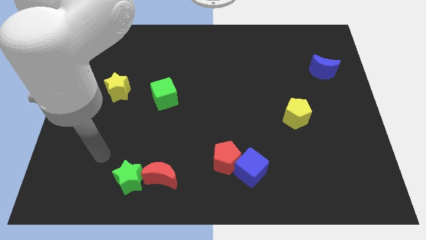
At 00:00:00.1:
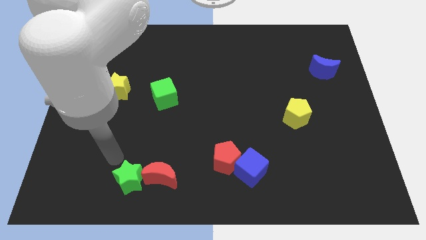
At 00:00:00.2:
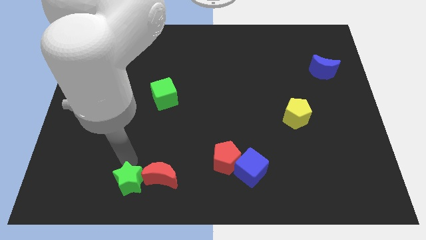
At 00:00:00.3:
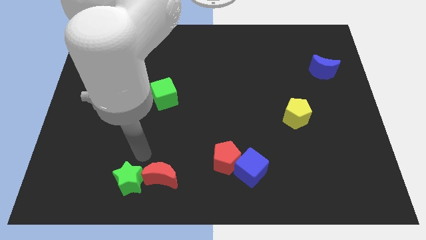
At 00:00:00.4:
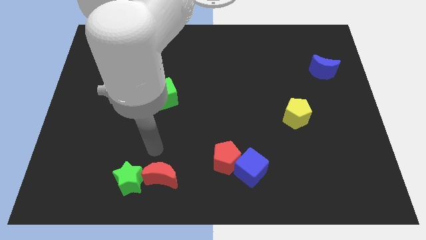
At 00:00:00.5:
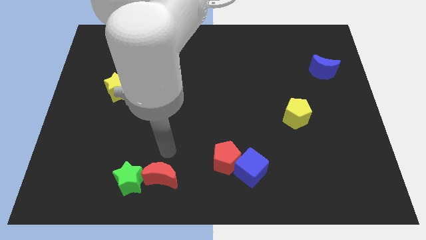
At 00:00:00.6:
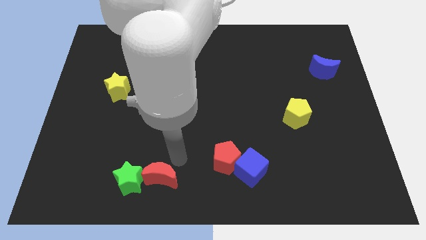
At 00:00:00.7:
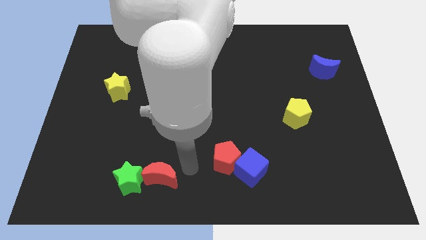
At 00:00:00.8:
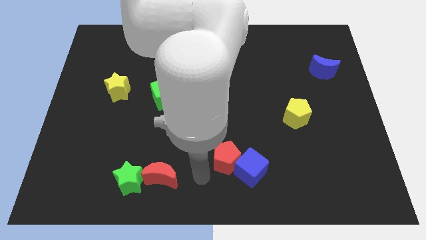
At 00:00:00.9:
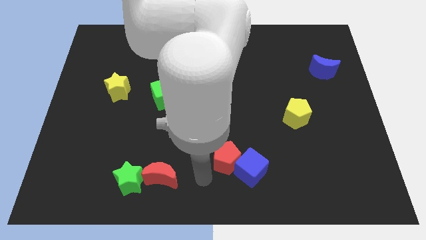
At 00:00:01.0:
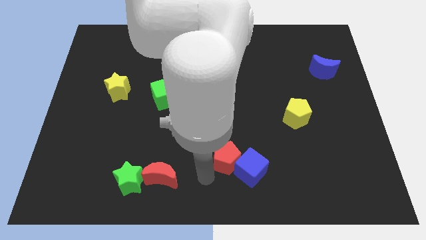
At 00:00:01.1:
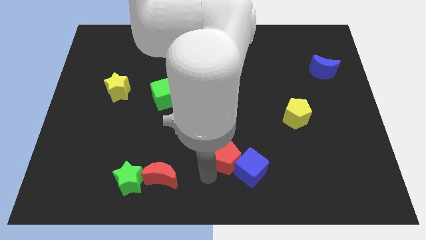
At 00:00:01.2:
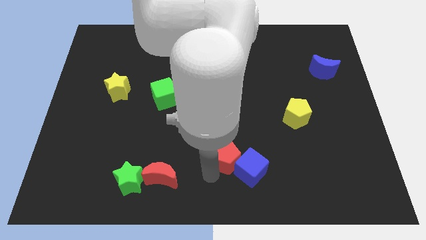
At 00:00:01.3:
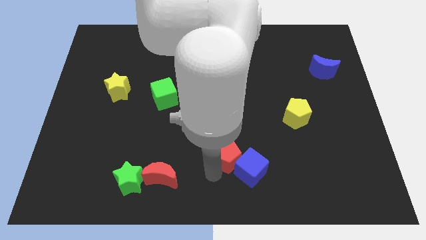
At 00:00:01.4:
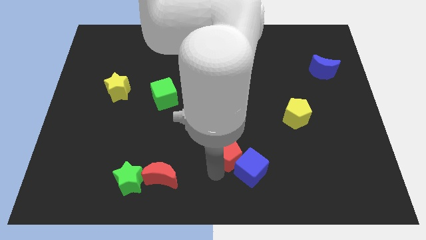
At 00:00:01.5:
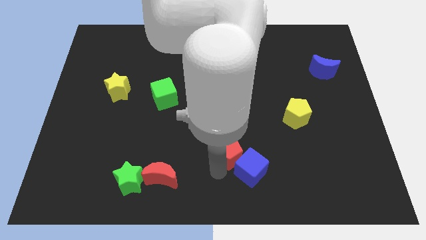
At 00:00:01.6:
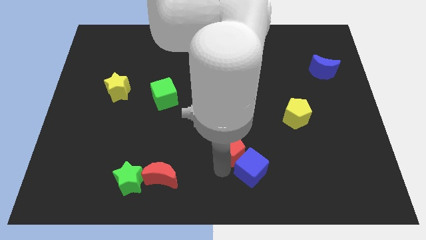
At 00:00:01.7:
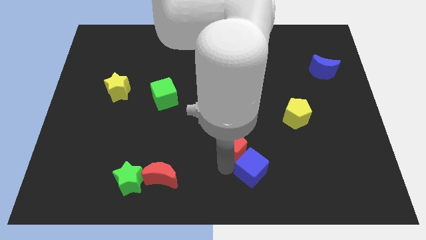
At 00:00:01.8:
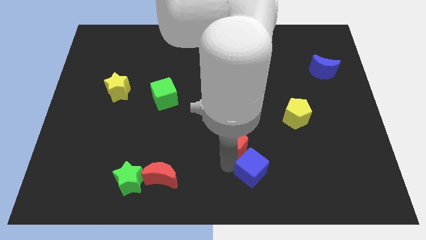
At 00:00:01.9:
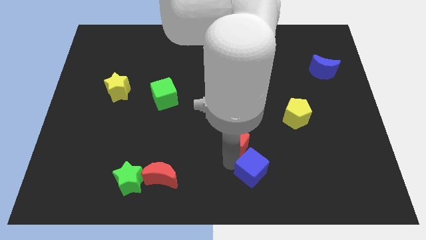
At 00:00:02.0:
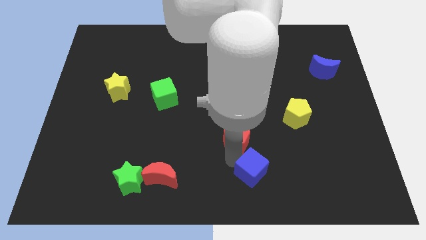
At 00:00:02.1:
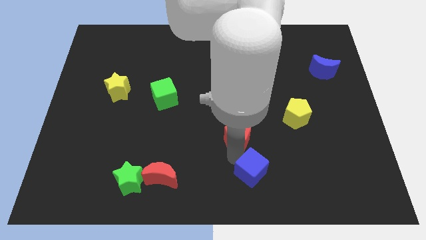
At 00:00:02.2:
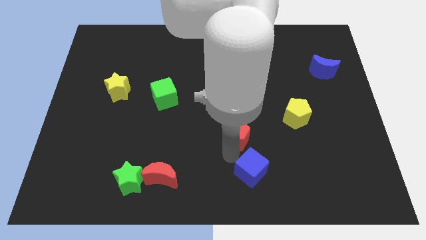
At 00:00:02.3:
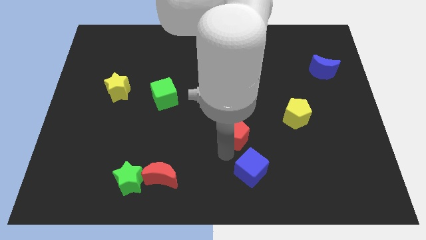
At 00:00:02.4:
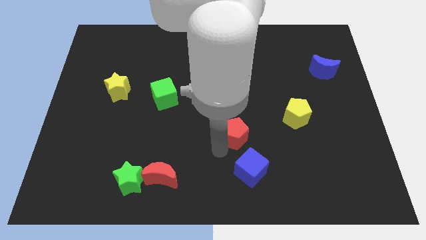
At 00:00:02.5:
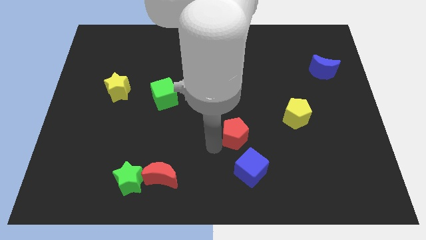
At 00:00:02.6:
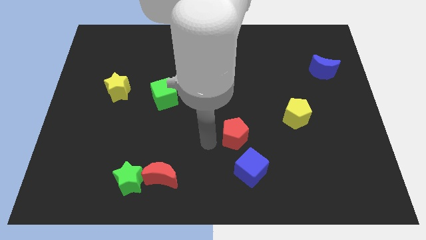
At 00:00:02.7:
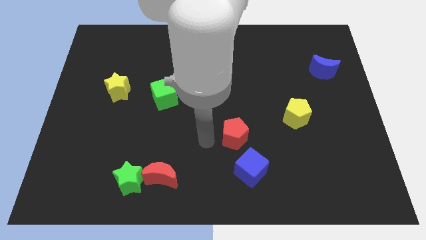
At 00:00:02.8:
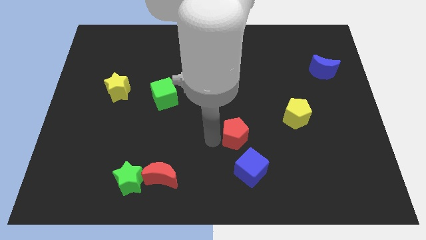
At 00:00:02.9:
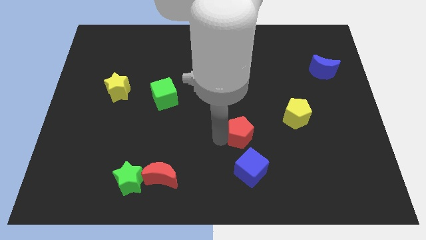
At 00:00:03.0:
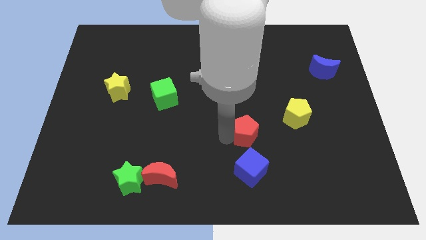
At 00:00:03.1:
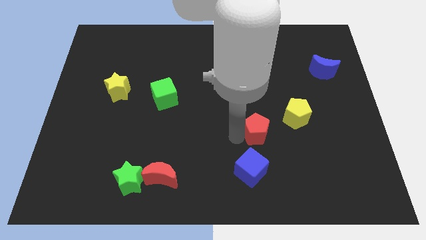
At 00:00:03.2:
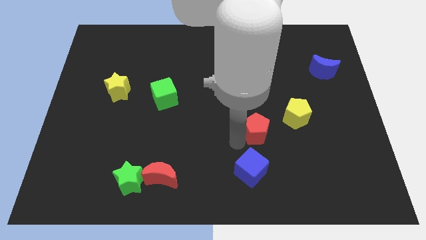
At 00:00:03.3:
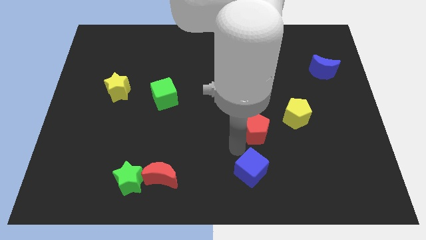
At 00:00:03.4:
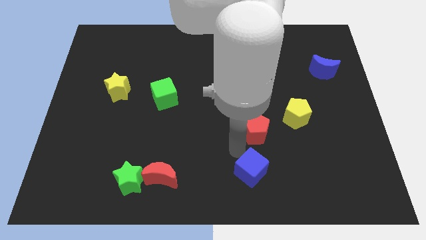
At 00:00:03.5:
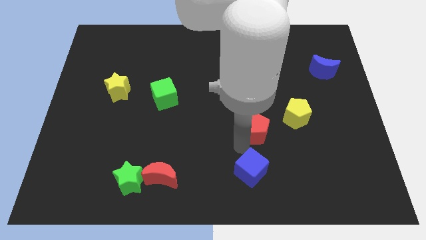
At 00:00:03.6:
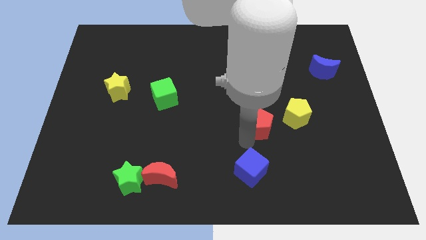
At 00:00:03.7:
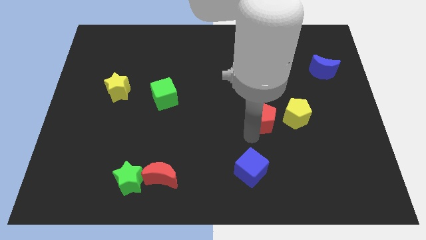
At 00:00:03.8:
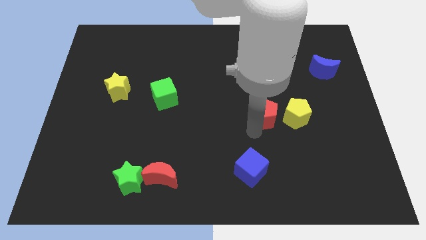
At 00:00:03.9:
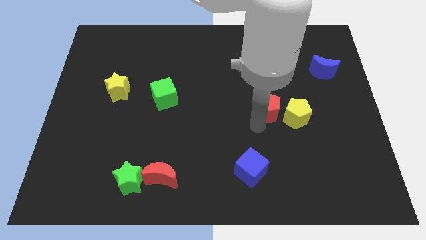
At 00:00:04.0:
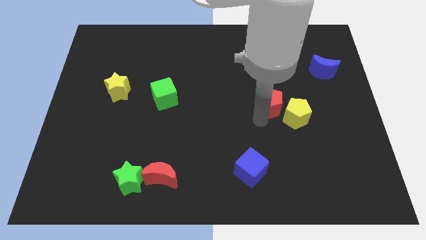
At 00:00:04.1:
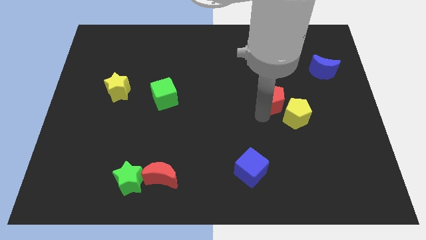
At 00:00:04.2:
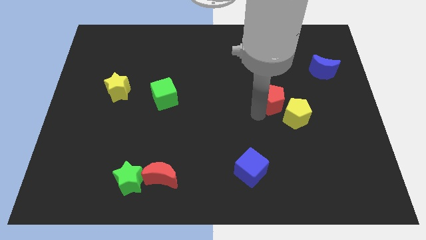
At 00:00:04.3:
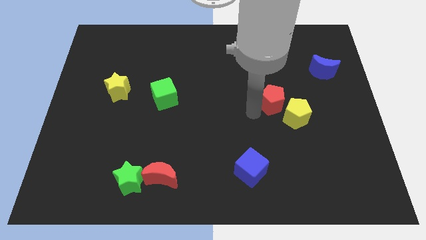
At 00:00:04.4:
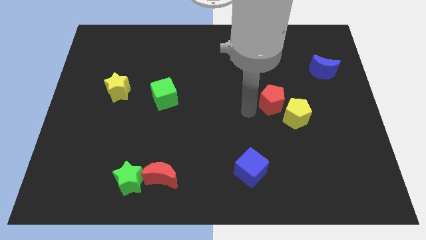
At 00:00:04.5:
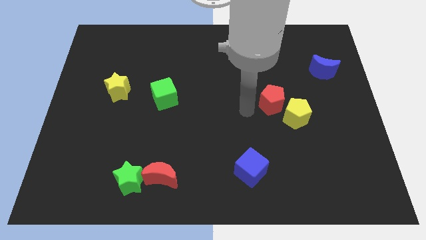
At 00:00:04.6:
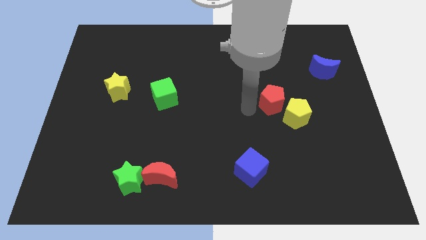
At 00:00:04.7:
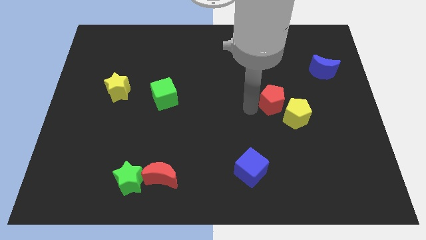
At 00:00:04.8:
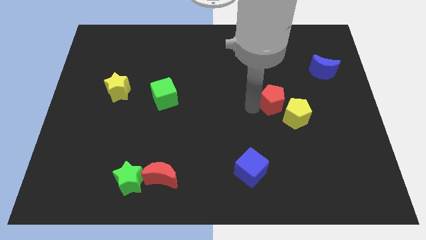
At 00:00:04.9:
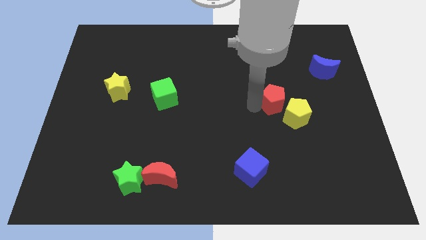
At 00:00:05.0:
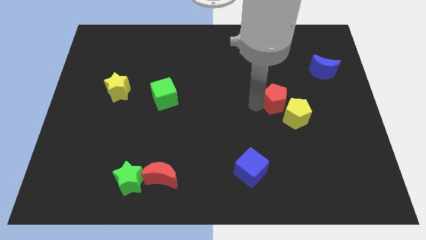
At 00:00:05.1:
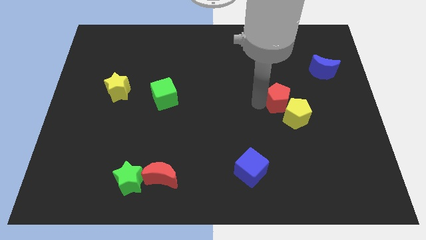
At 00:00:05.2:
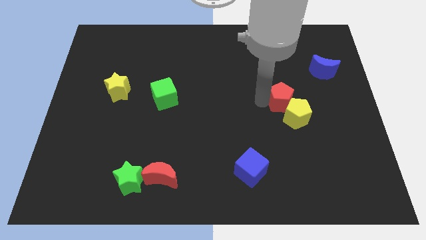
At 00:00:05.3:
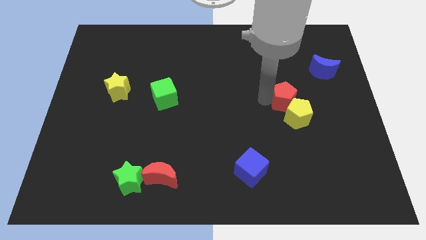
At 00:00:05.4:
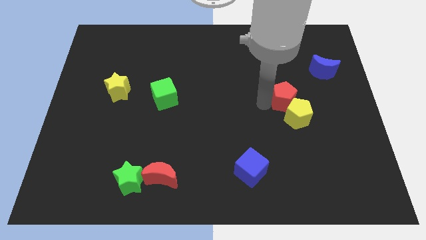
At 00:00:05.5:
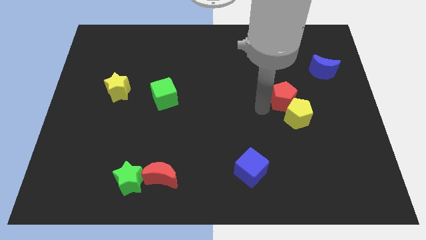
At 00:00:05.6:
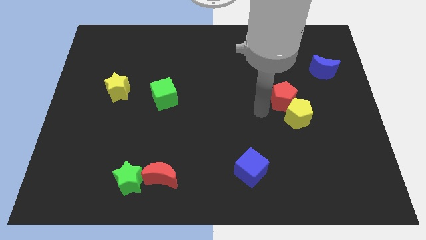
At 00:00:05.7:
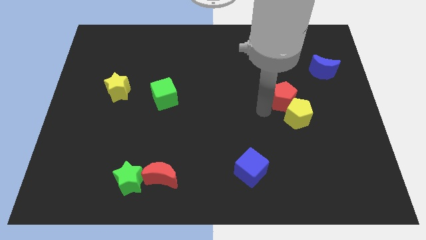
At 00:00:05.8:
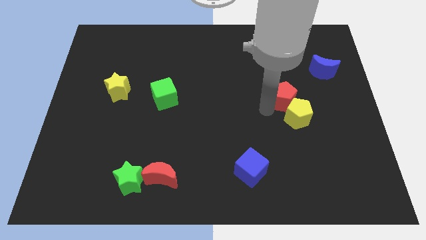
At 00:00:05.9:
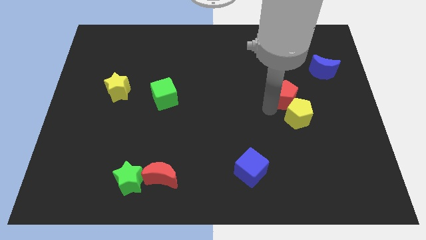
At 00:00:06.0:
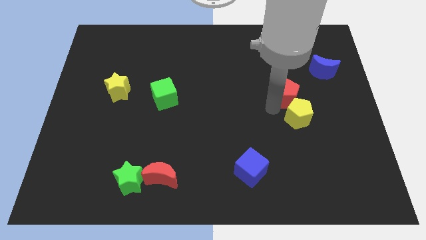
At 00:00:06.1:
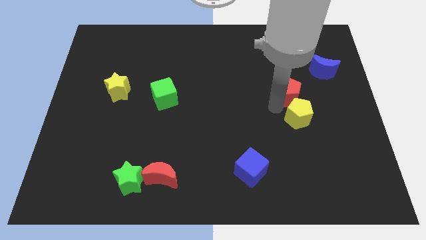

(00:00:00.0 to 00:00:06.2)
move the red pentagon to the bottom left side of the blue moon
